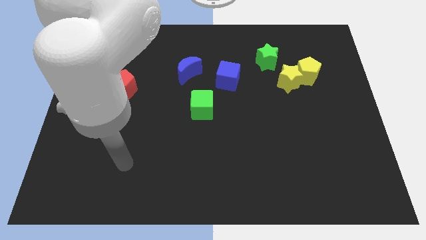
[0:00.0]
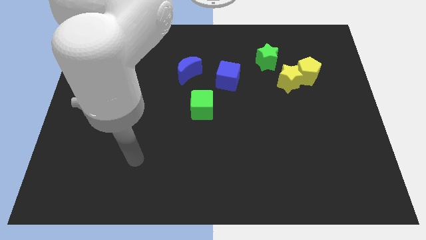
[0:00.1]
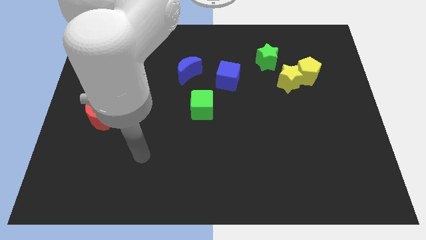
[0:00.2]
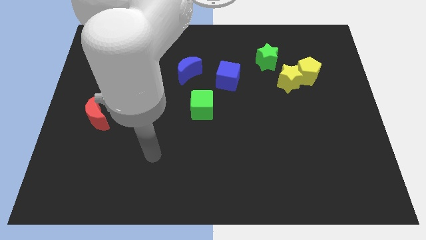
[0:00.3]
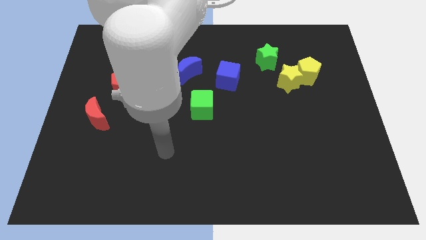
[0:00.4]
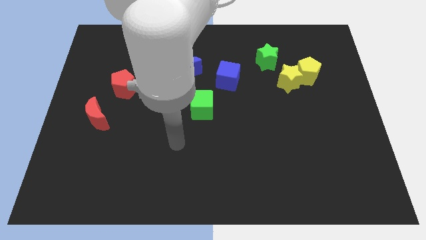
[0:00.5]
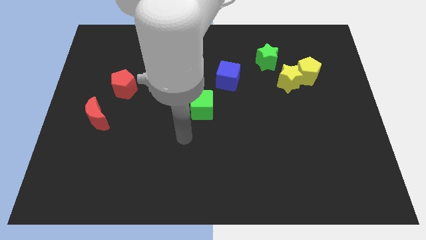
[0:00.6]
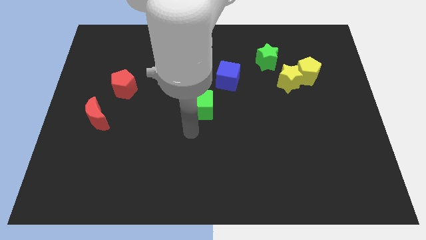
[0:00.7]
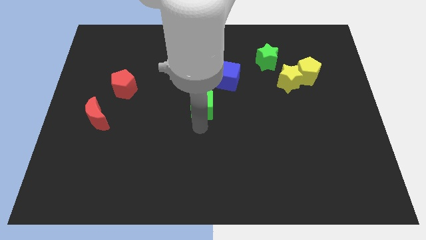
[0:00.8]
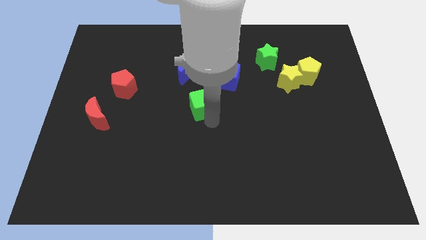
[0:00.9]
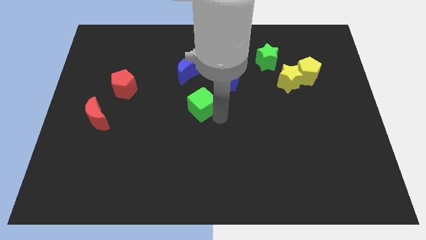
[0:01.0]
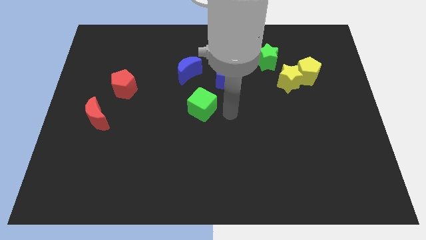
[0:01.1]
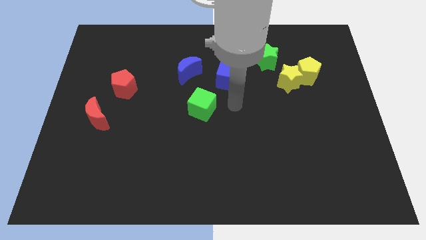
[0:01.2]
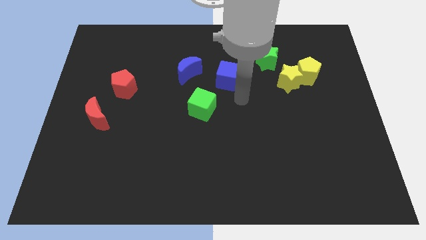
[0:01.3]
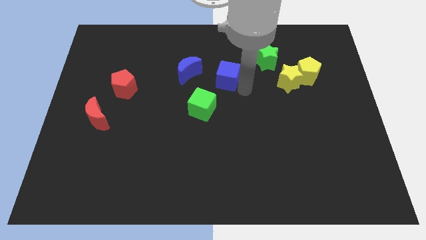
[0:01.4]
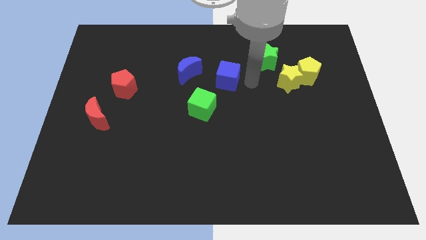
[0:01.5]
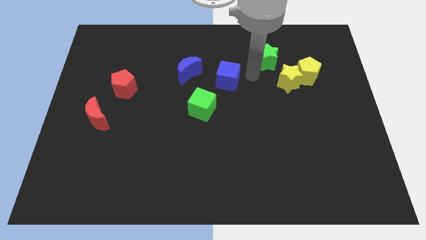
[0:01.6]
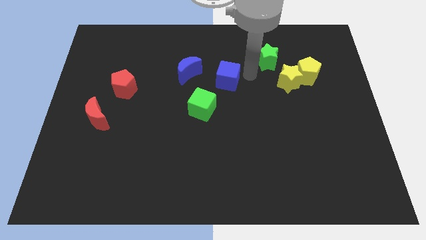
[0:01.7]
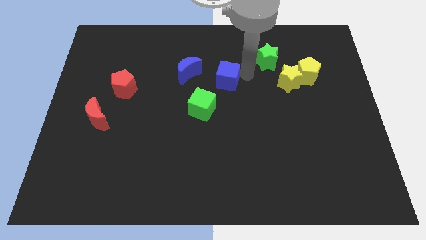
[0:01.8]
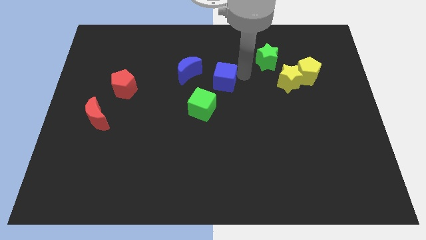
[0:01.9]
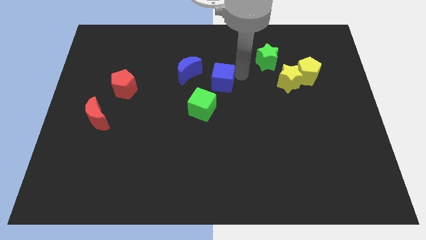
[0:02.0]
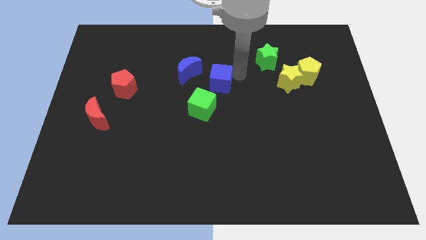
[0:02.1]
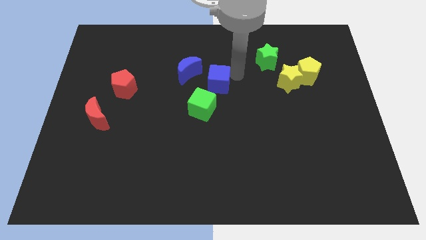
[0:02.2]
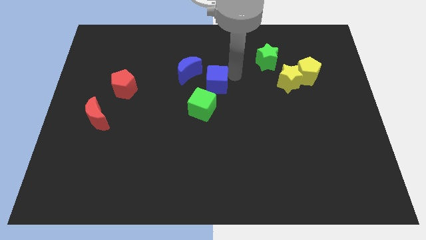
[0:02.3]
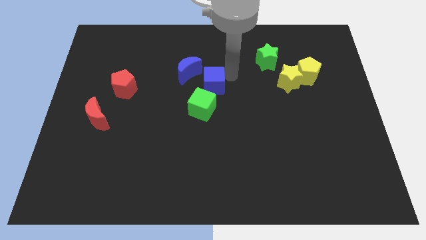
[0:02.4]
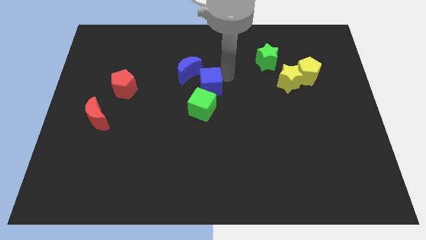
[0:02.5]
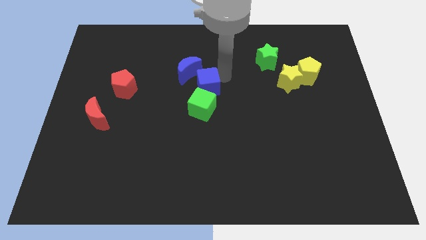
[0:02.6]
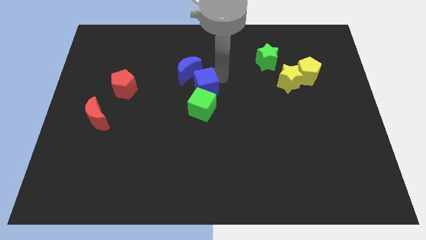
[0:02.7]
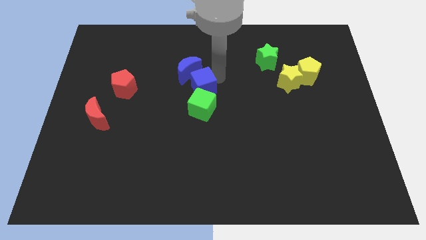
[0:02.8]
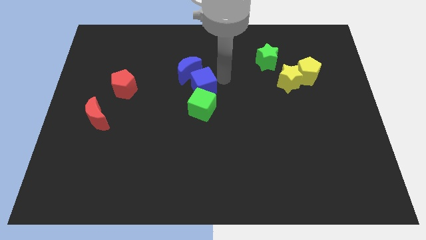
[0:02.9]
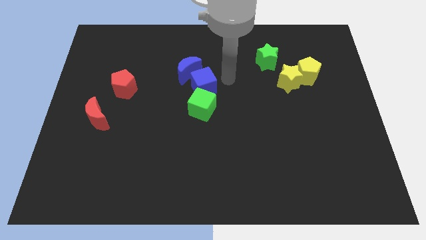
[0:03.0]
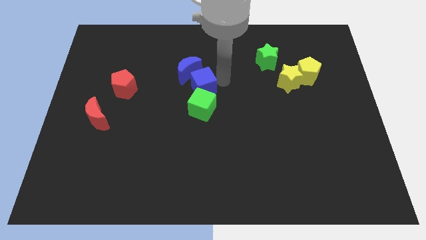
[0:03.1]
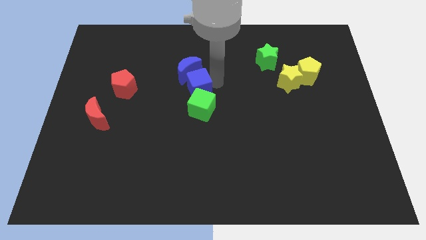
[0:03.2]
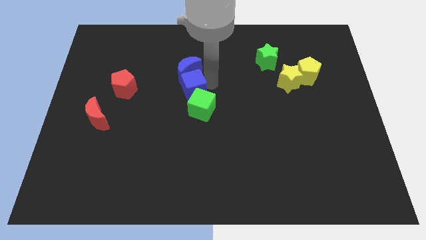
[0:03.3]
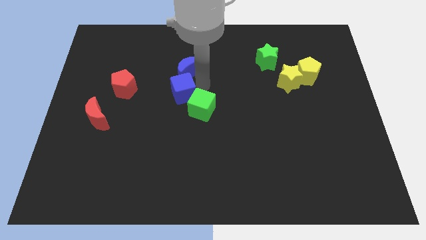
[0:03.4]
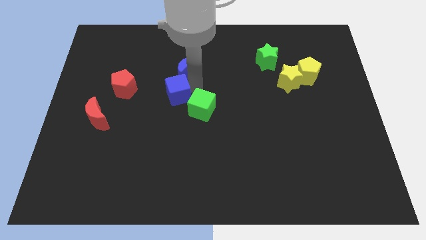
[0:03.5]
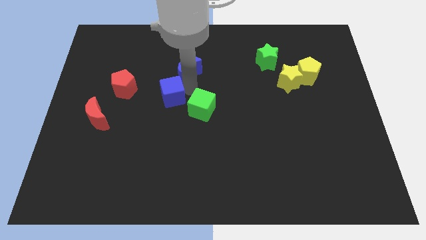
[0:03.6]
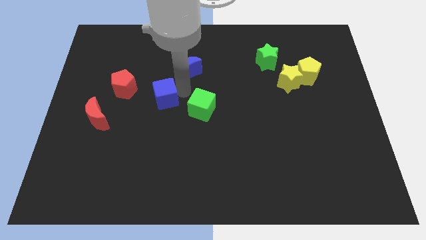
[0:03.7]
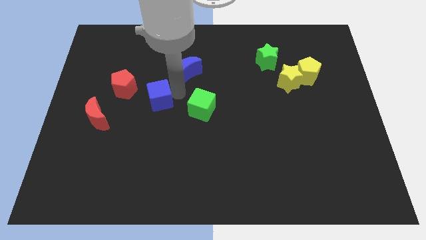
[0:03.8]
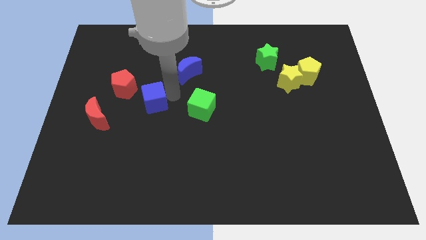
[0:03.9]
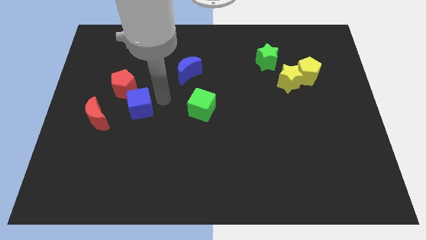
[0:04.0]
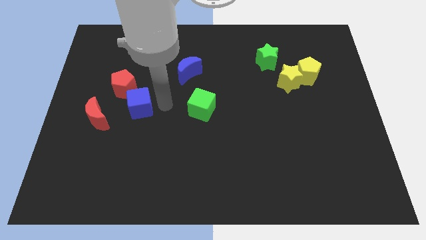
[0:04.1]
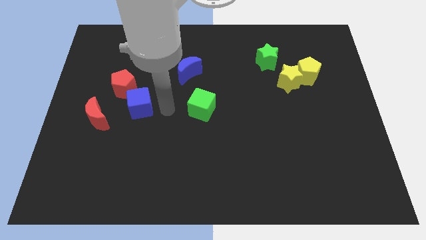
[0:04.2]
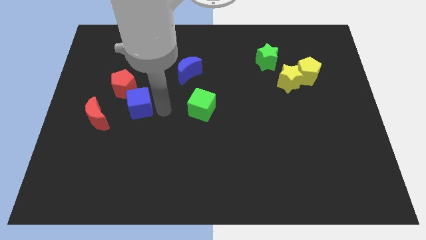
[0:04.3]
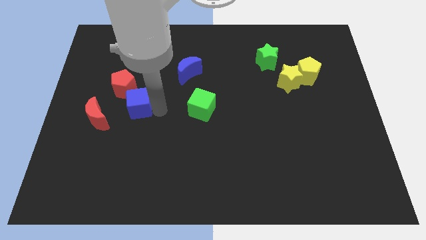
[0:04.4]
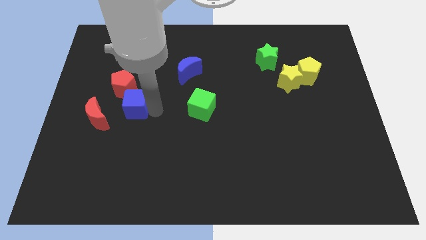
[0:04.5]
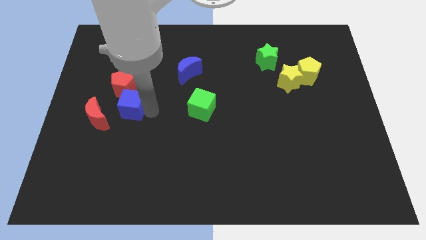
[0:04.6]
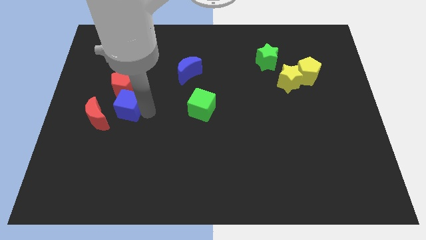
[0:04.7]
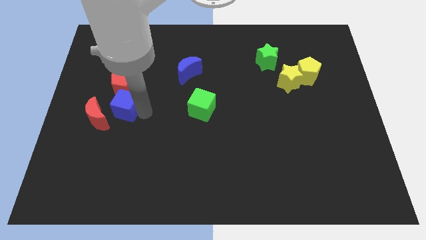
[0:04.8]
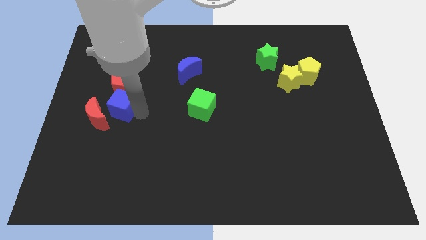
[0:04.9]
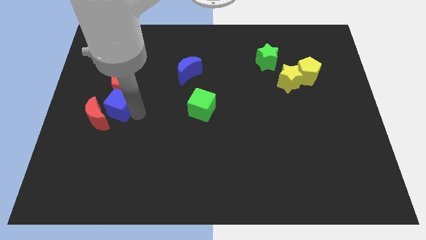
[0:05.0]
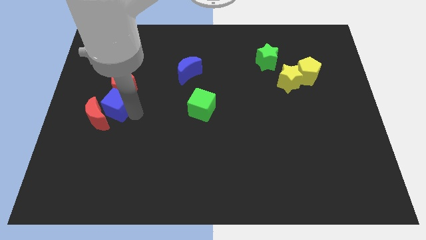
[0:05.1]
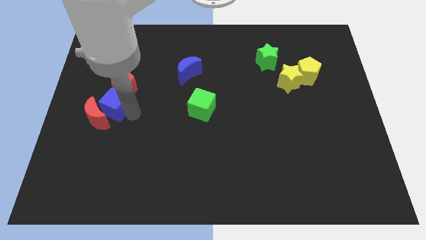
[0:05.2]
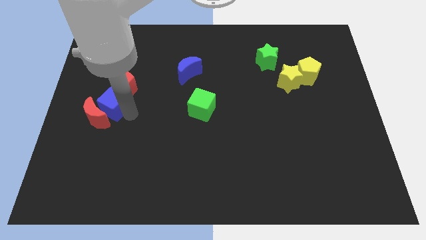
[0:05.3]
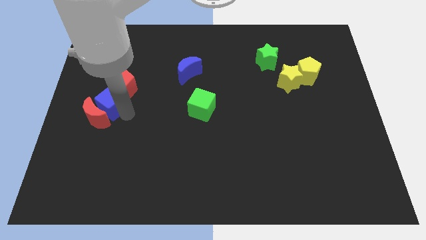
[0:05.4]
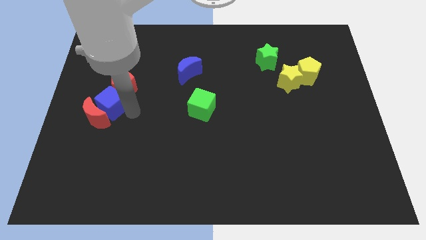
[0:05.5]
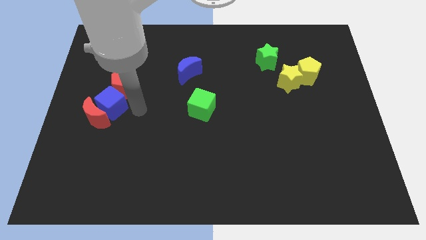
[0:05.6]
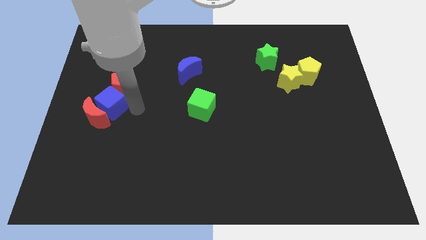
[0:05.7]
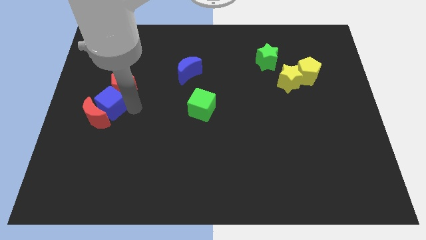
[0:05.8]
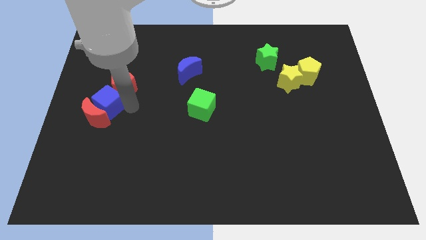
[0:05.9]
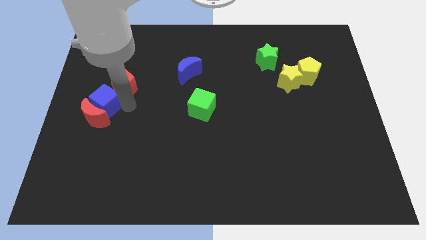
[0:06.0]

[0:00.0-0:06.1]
slide the blue cube to the left side

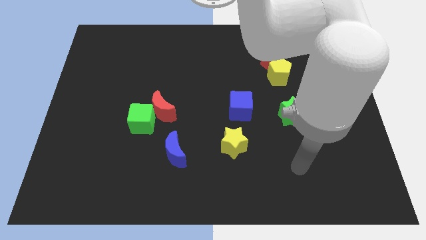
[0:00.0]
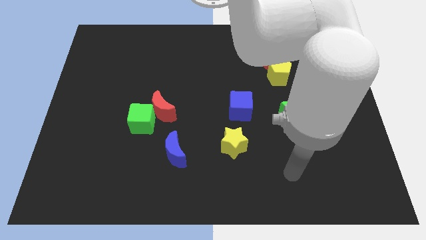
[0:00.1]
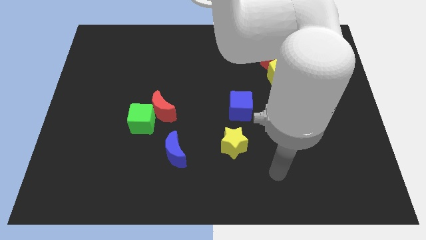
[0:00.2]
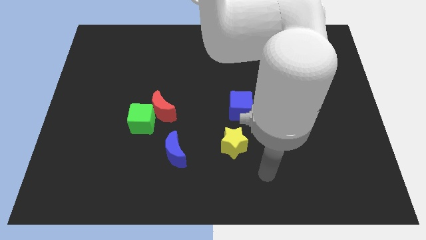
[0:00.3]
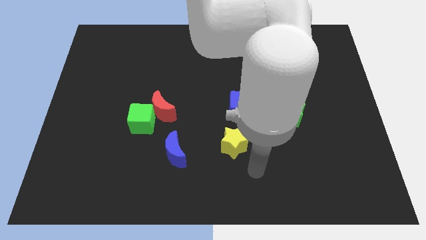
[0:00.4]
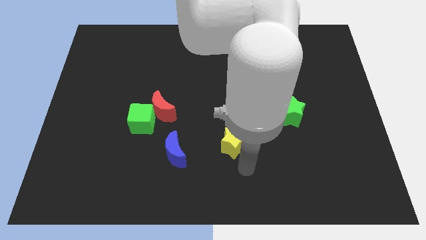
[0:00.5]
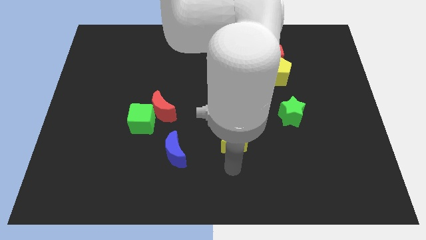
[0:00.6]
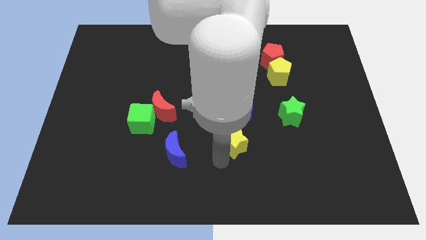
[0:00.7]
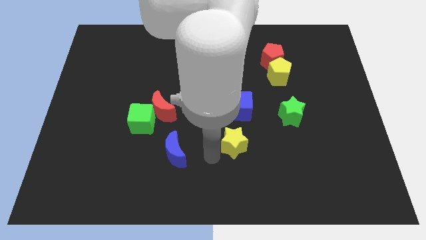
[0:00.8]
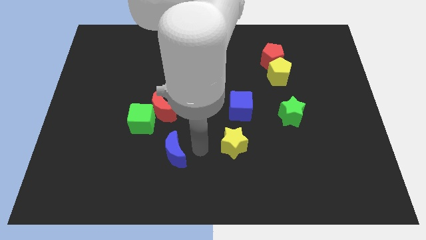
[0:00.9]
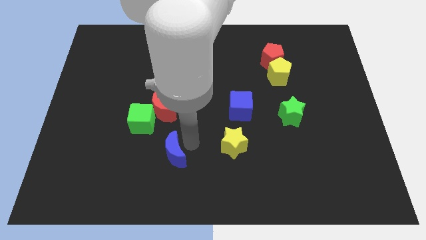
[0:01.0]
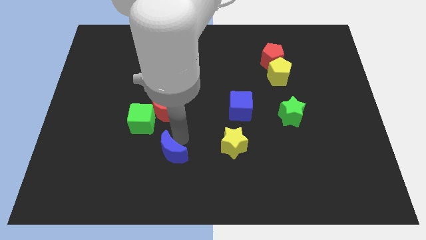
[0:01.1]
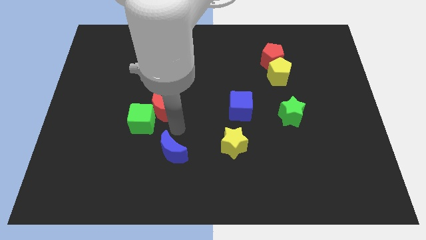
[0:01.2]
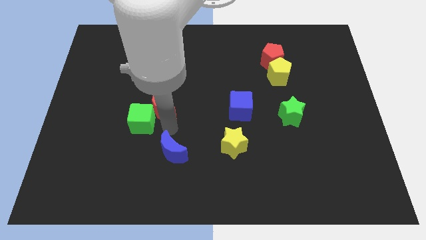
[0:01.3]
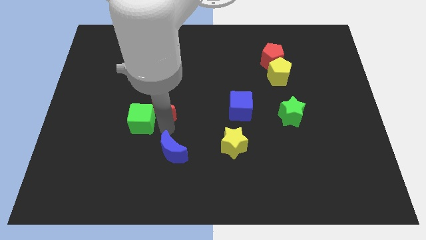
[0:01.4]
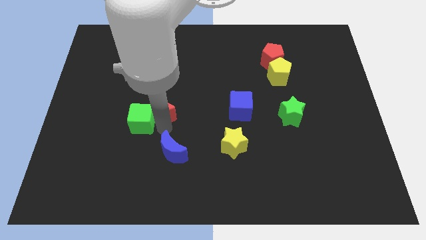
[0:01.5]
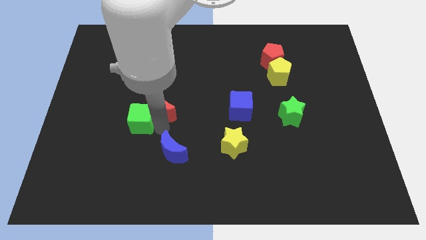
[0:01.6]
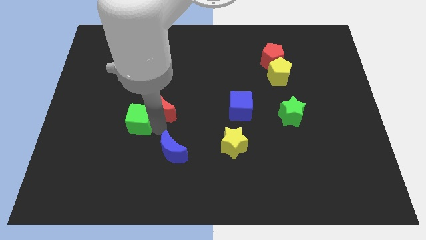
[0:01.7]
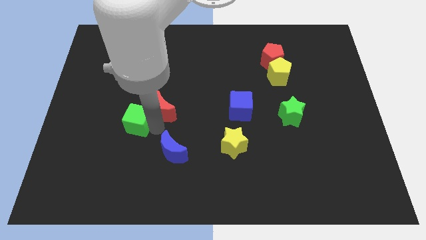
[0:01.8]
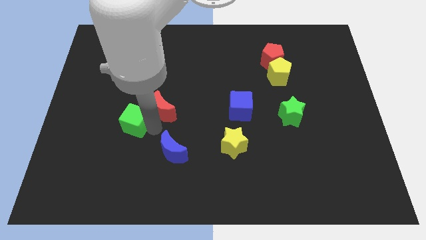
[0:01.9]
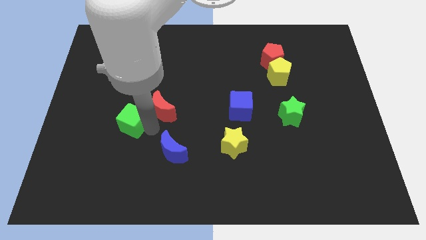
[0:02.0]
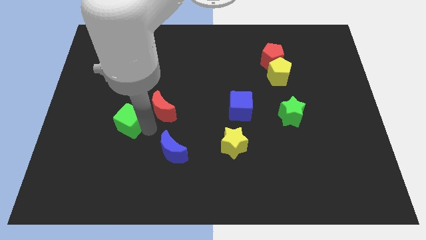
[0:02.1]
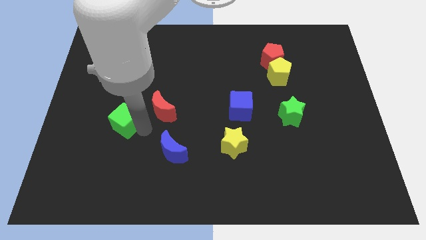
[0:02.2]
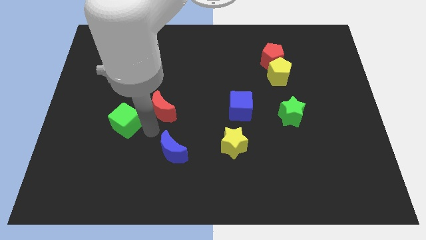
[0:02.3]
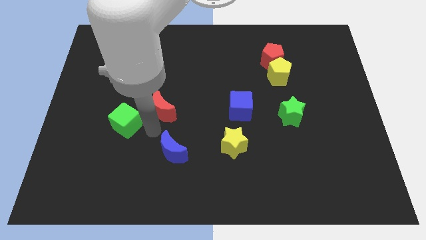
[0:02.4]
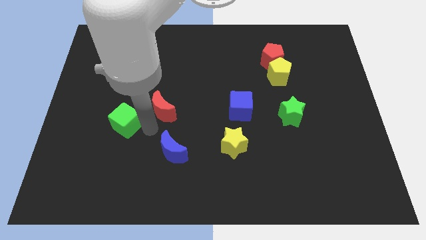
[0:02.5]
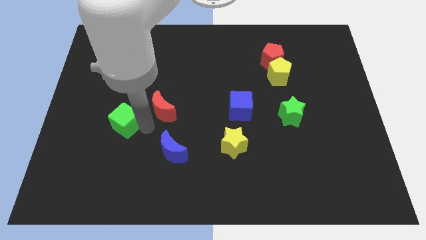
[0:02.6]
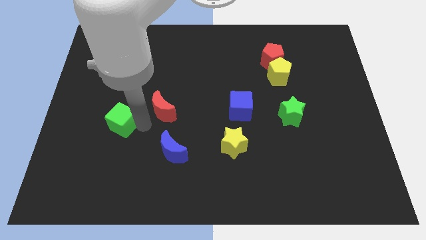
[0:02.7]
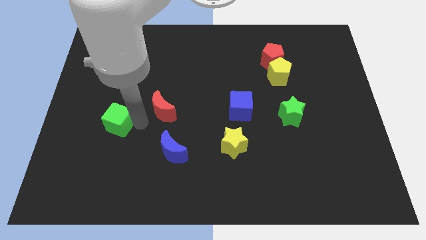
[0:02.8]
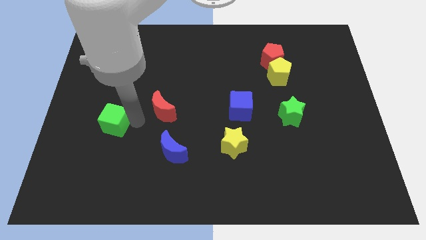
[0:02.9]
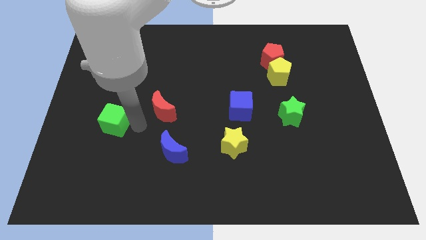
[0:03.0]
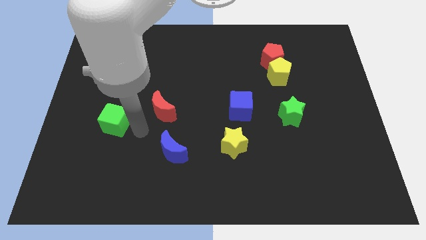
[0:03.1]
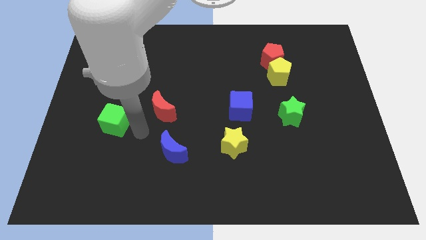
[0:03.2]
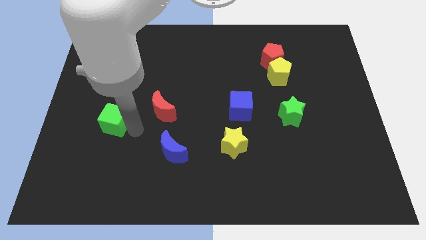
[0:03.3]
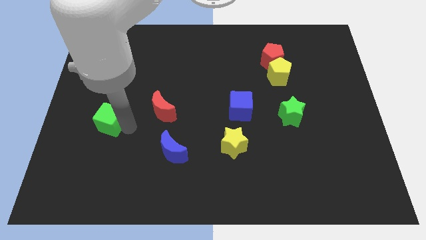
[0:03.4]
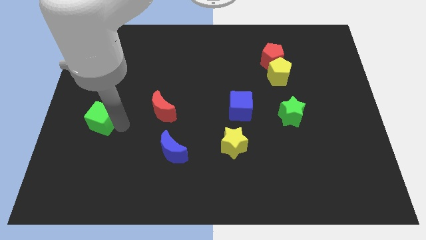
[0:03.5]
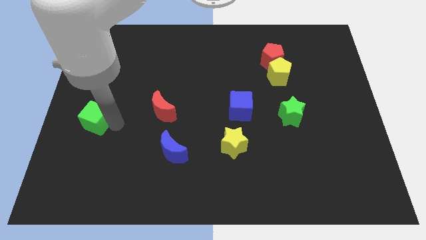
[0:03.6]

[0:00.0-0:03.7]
push the green cube to the center left
